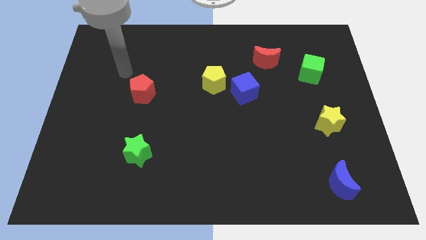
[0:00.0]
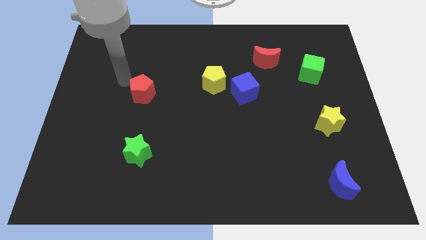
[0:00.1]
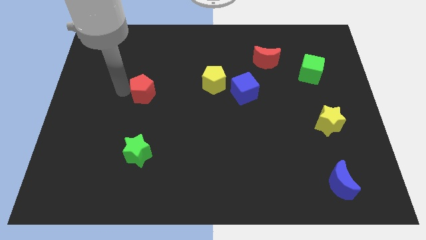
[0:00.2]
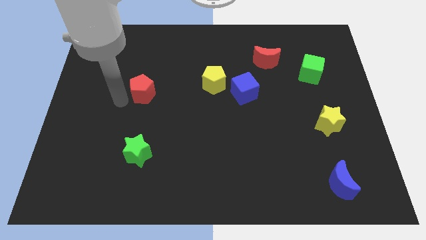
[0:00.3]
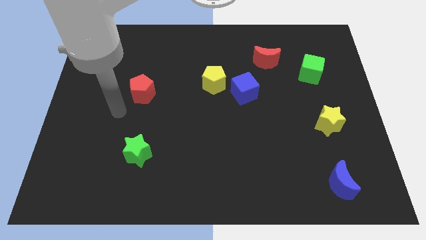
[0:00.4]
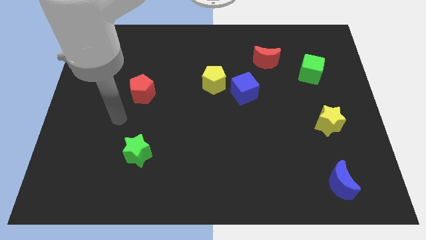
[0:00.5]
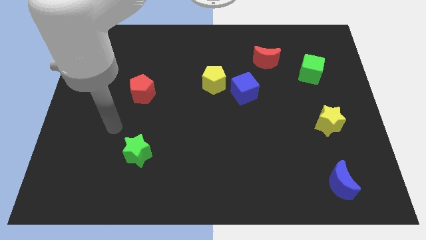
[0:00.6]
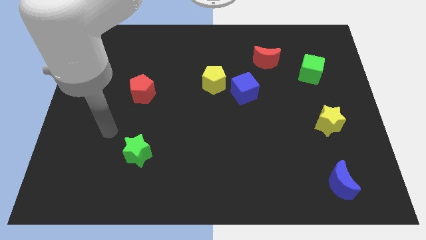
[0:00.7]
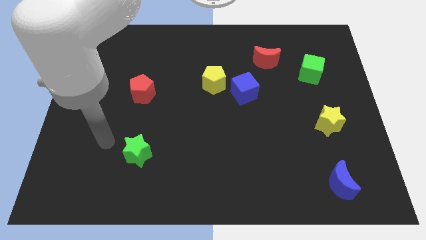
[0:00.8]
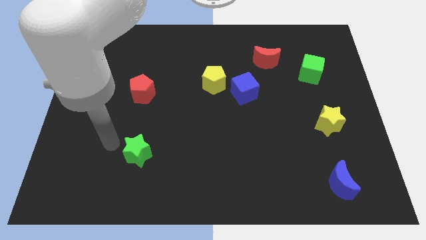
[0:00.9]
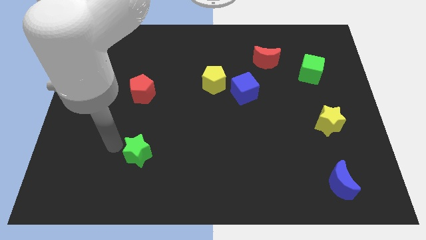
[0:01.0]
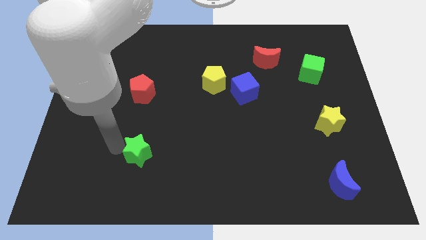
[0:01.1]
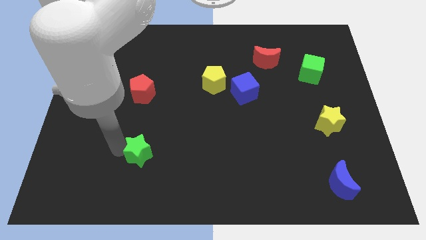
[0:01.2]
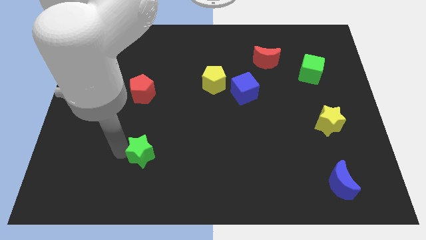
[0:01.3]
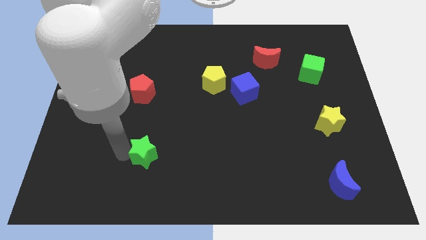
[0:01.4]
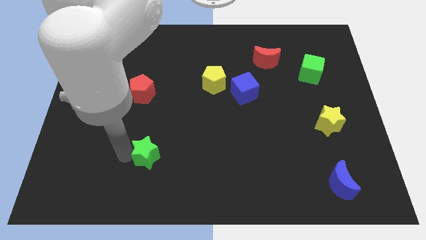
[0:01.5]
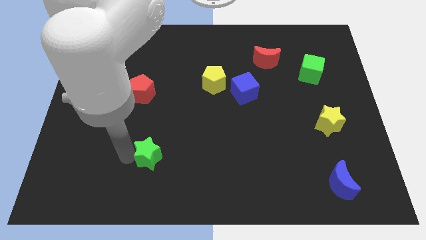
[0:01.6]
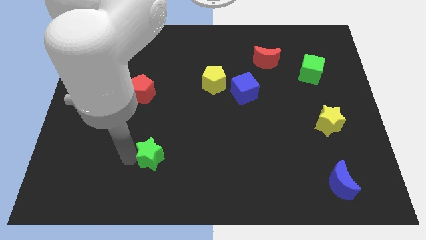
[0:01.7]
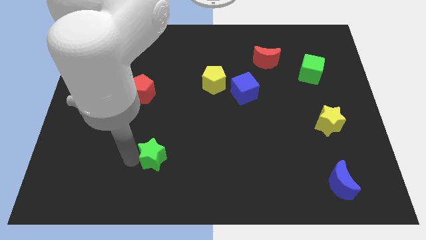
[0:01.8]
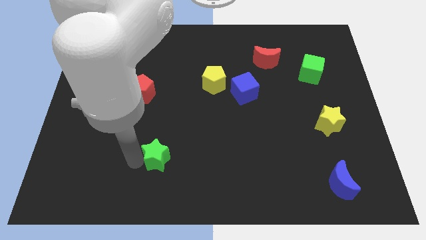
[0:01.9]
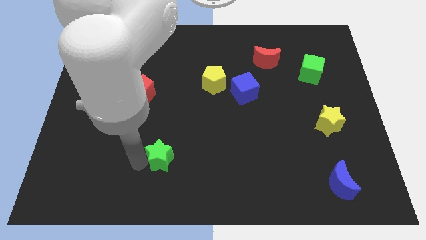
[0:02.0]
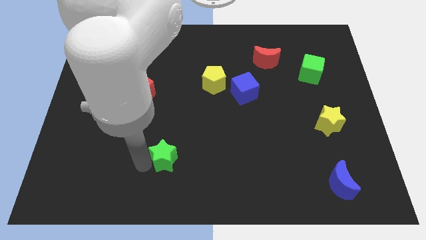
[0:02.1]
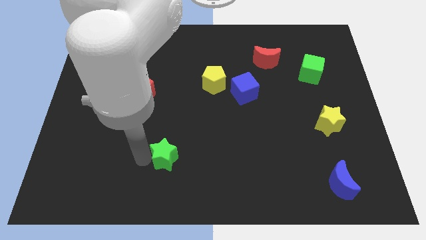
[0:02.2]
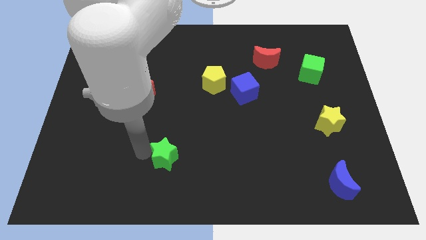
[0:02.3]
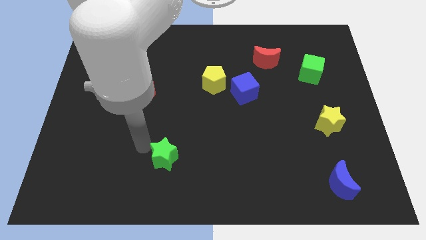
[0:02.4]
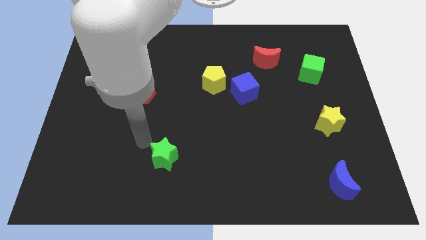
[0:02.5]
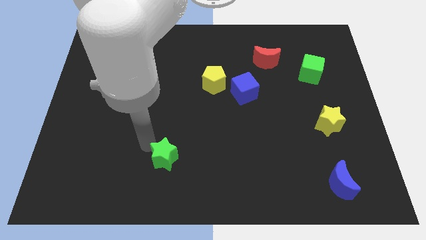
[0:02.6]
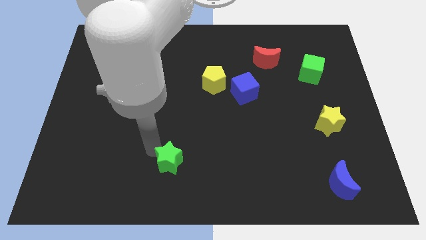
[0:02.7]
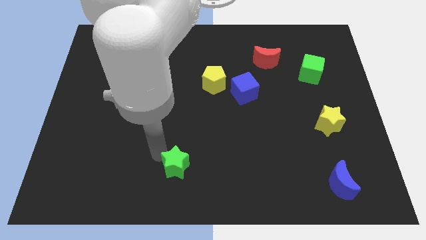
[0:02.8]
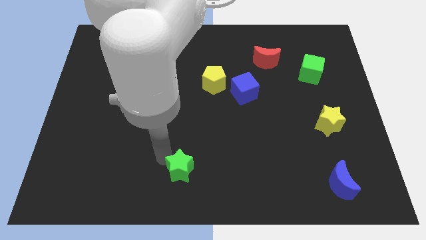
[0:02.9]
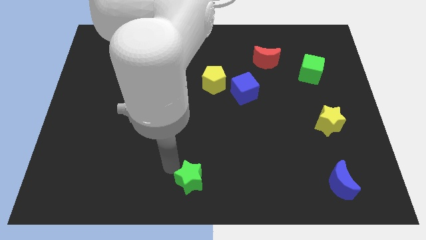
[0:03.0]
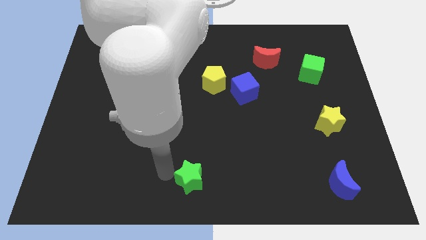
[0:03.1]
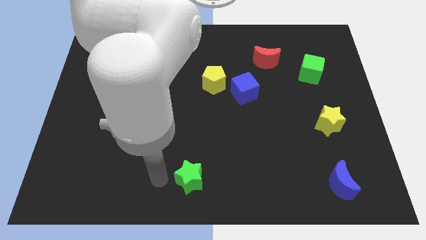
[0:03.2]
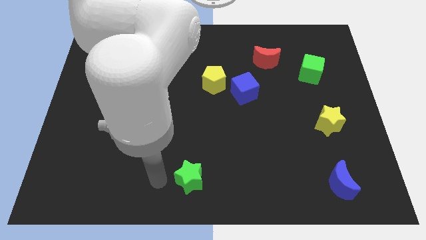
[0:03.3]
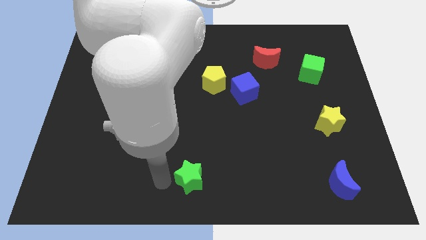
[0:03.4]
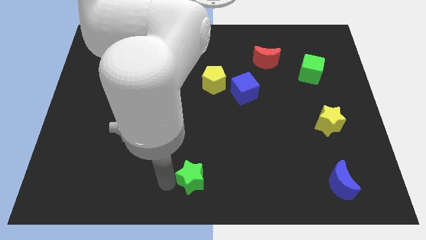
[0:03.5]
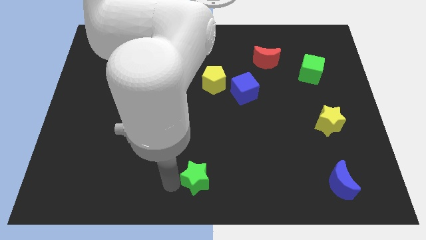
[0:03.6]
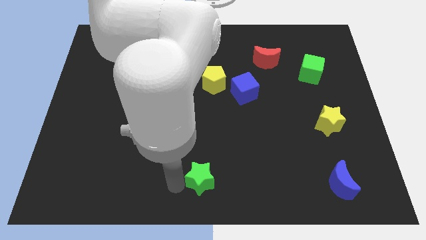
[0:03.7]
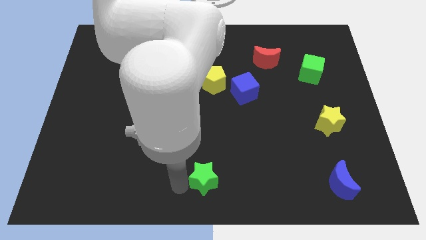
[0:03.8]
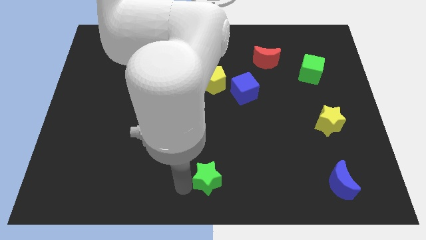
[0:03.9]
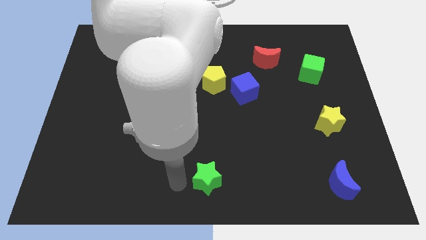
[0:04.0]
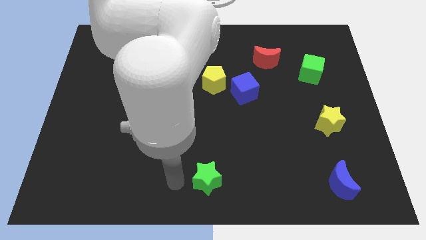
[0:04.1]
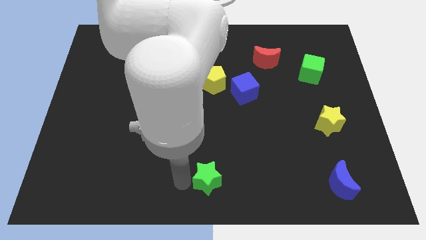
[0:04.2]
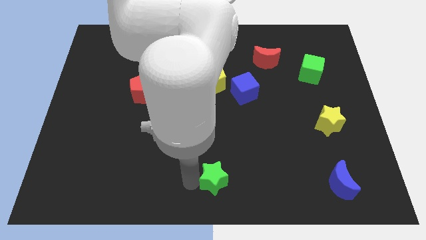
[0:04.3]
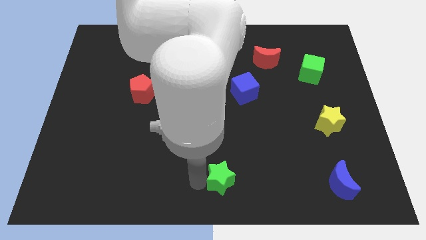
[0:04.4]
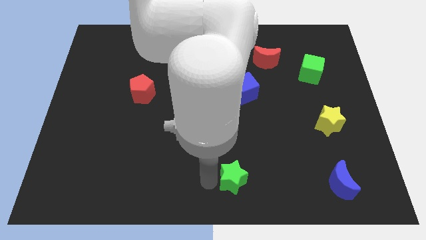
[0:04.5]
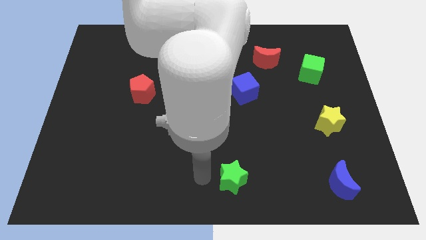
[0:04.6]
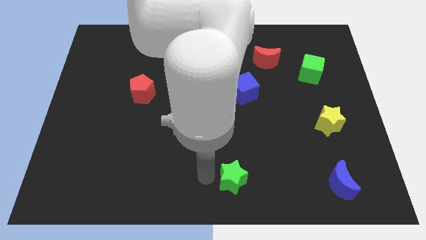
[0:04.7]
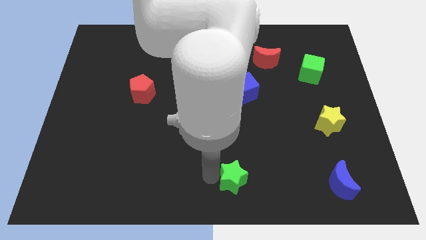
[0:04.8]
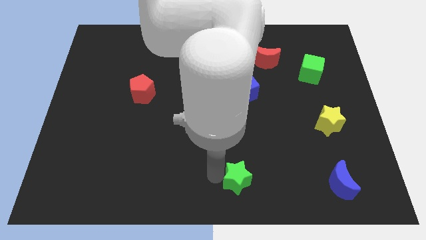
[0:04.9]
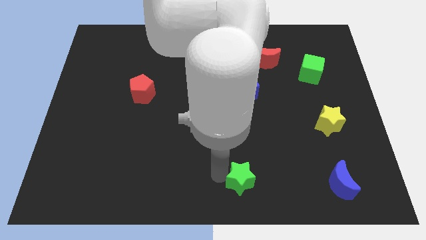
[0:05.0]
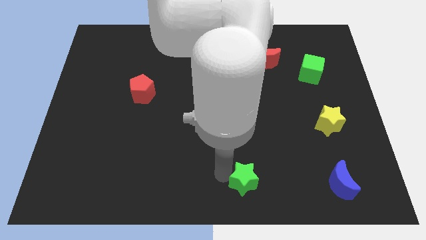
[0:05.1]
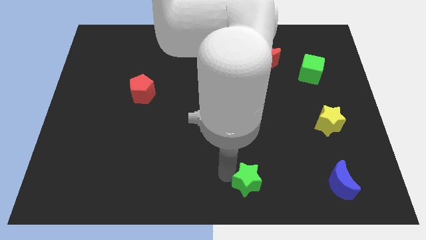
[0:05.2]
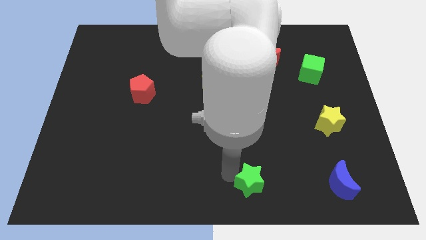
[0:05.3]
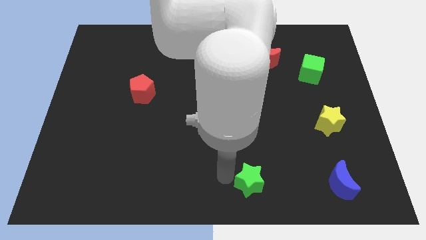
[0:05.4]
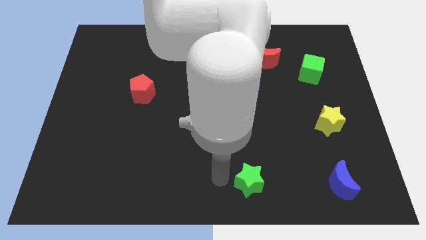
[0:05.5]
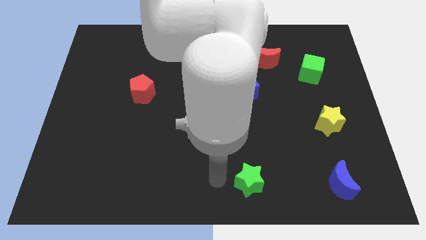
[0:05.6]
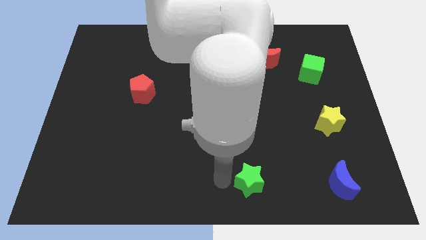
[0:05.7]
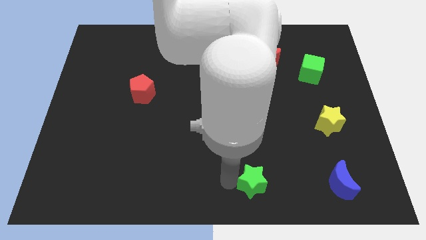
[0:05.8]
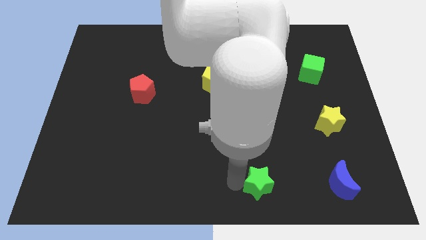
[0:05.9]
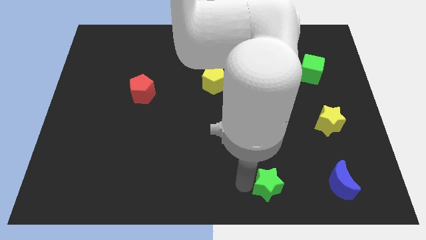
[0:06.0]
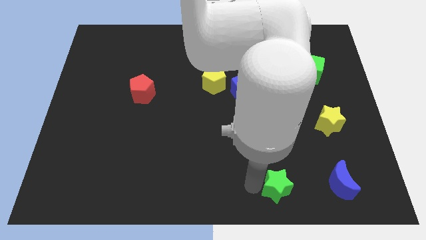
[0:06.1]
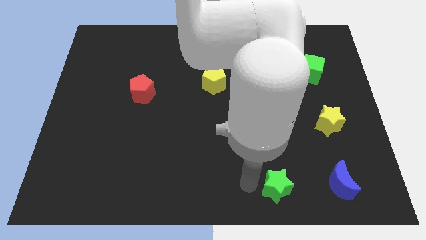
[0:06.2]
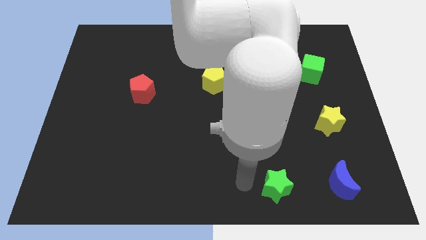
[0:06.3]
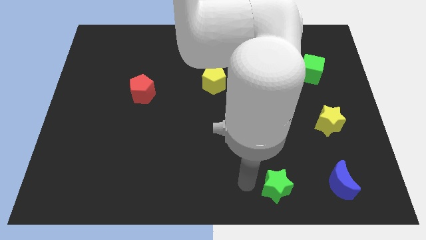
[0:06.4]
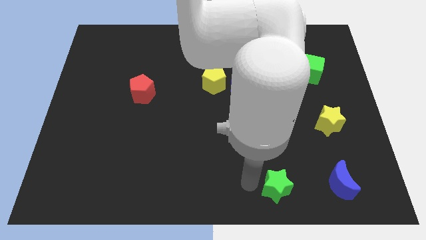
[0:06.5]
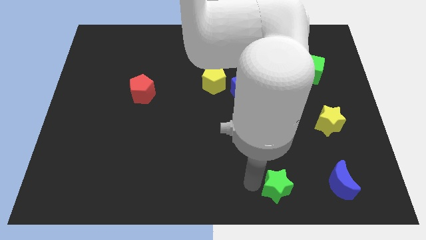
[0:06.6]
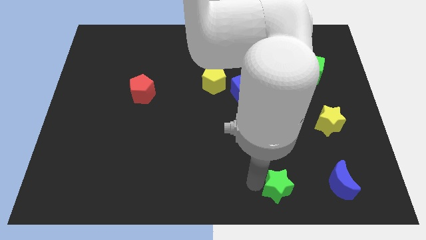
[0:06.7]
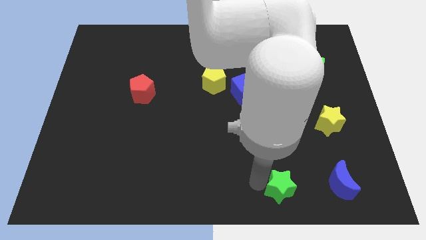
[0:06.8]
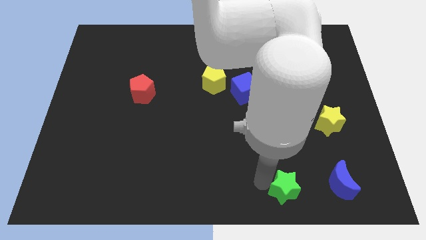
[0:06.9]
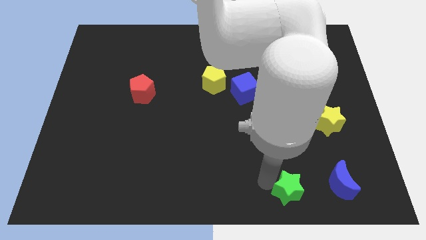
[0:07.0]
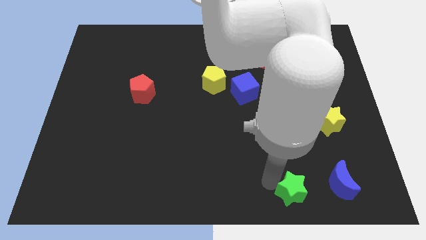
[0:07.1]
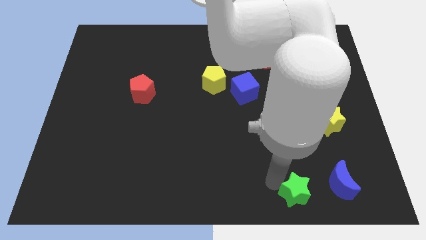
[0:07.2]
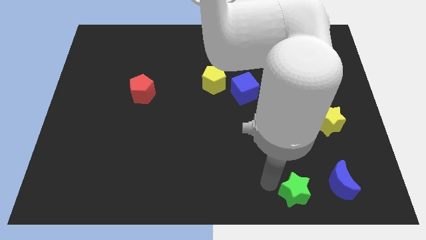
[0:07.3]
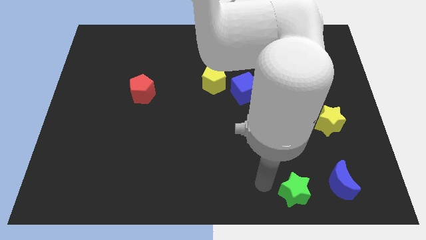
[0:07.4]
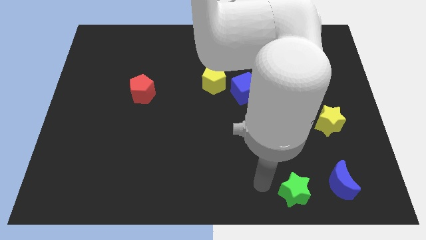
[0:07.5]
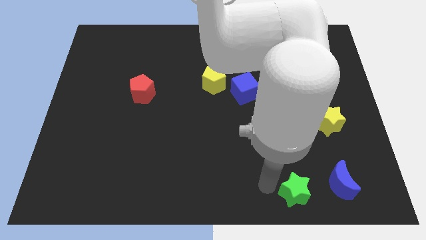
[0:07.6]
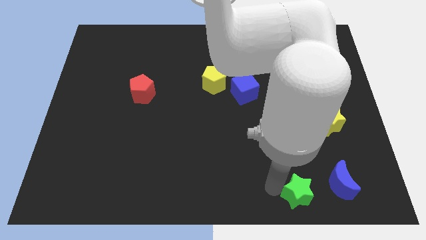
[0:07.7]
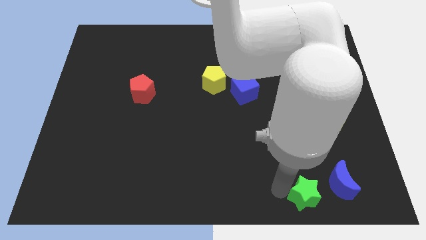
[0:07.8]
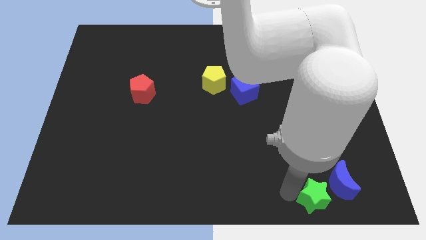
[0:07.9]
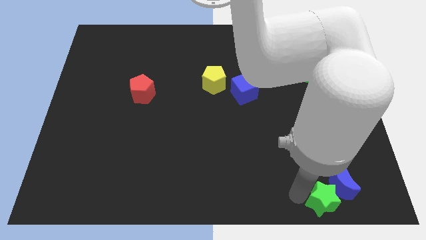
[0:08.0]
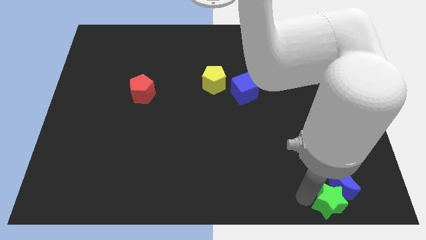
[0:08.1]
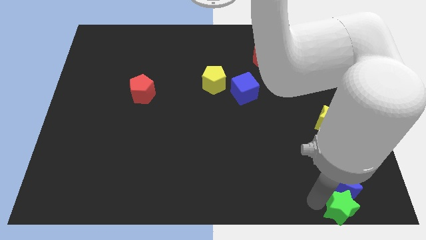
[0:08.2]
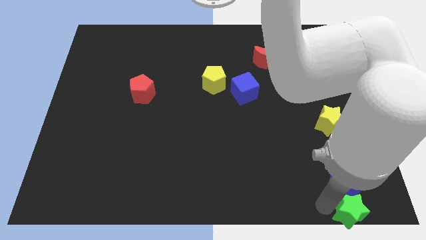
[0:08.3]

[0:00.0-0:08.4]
put the green star to the bottom right of the board
